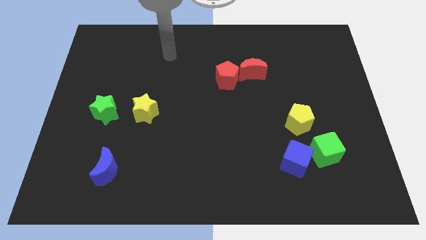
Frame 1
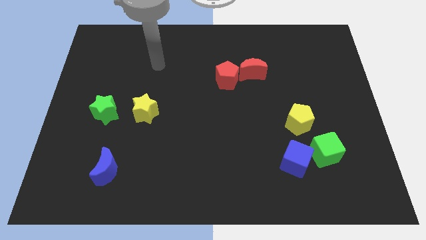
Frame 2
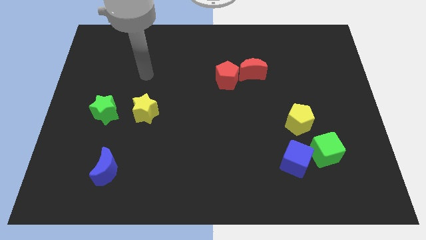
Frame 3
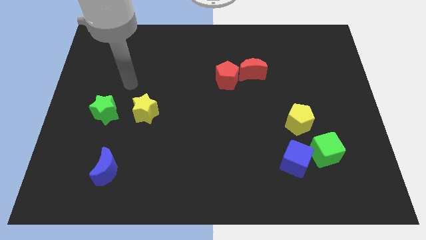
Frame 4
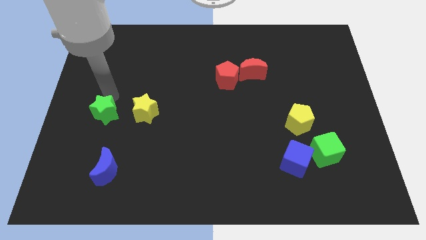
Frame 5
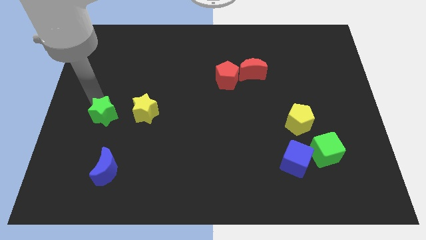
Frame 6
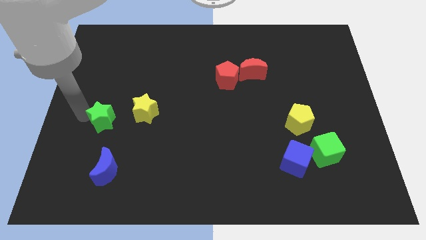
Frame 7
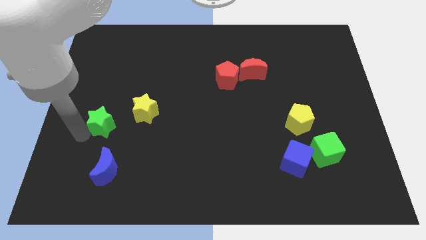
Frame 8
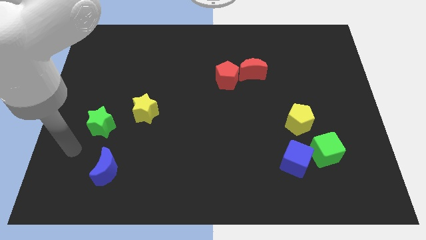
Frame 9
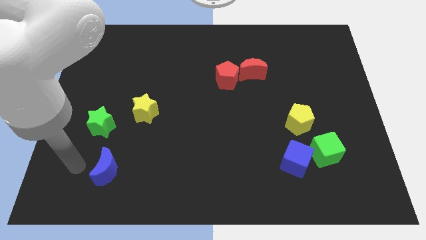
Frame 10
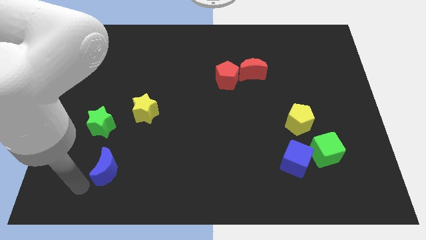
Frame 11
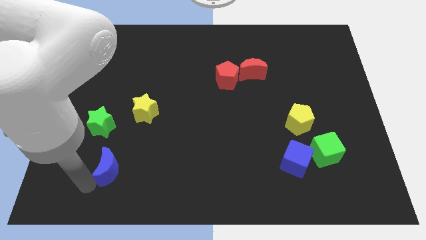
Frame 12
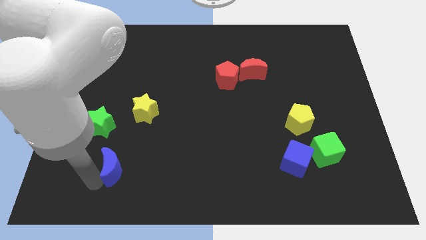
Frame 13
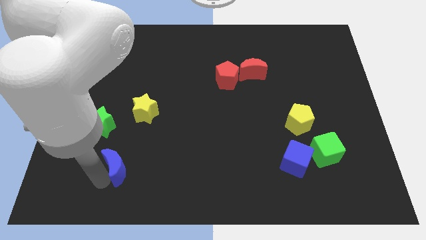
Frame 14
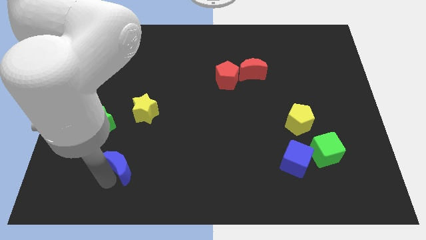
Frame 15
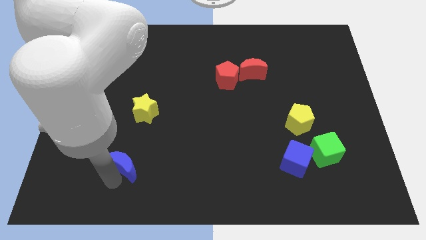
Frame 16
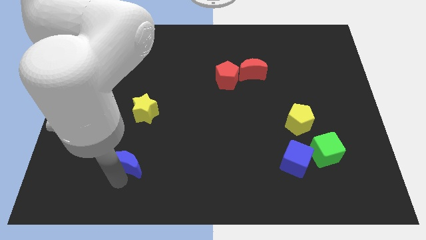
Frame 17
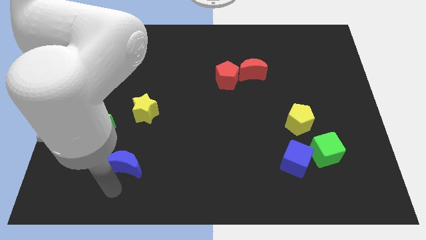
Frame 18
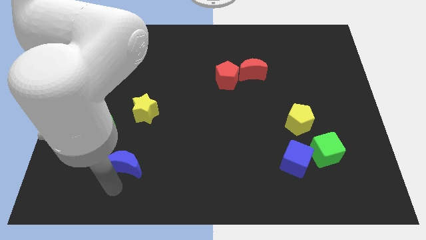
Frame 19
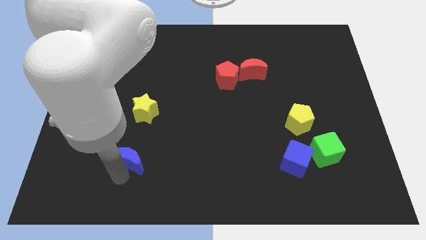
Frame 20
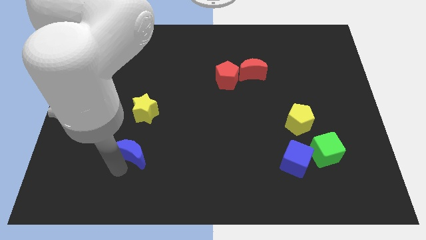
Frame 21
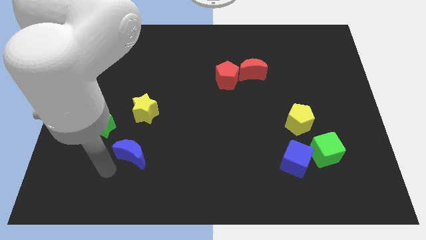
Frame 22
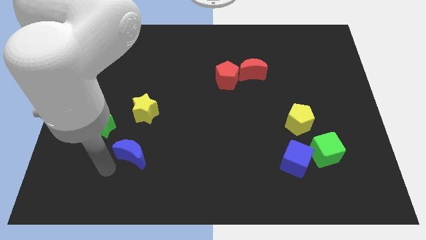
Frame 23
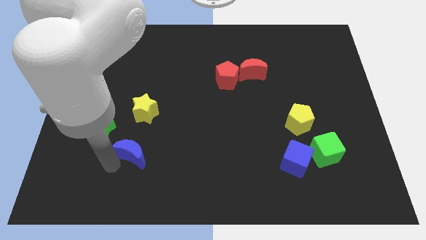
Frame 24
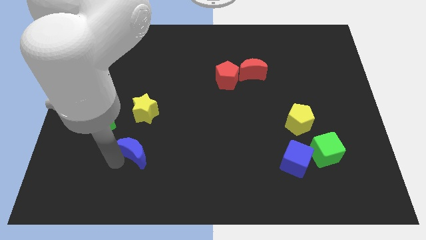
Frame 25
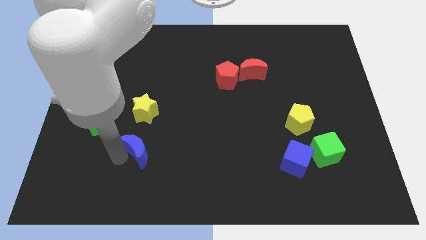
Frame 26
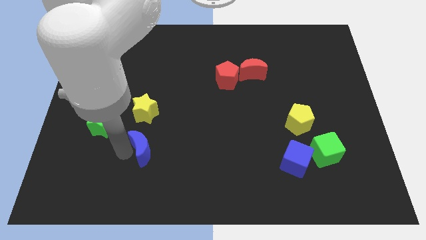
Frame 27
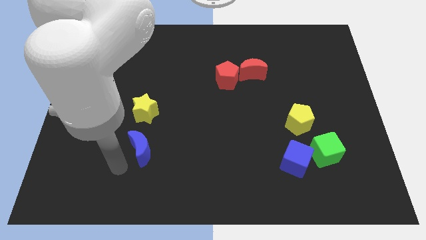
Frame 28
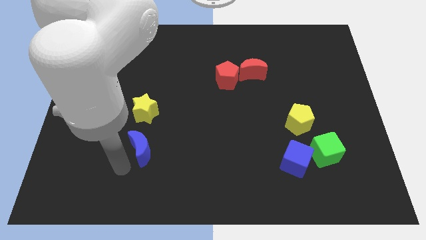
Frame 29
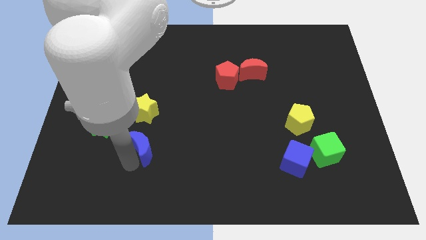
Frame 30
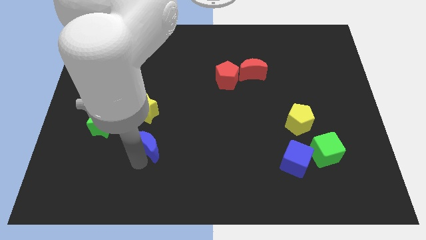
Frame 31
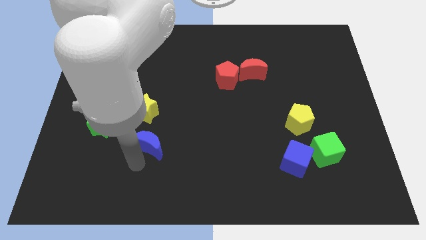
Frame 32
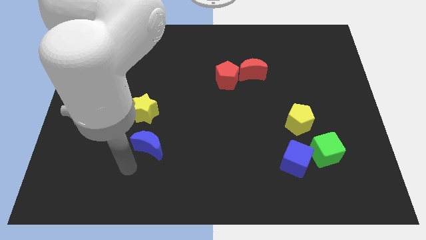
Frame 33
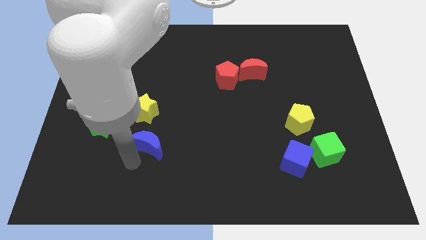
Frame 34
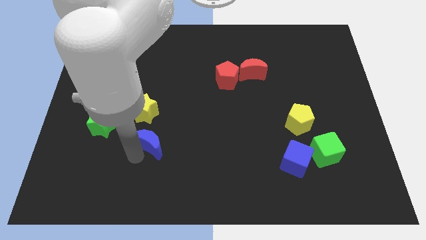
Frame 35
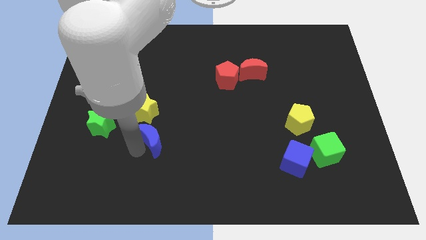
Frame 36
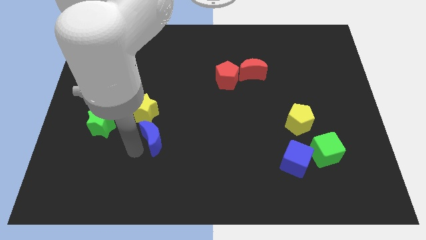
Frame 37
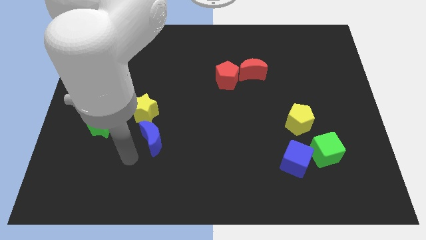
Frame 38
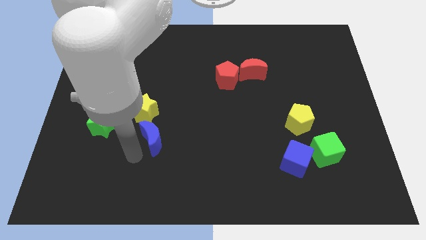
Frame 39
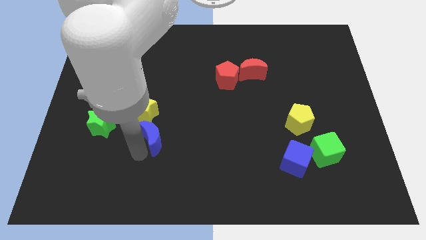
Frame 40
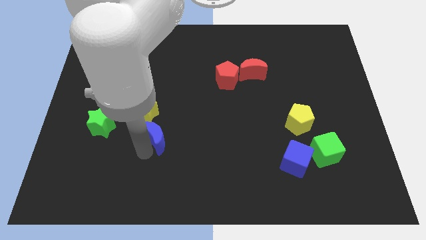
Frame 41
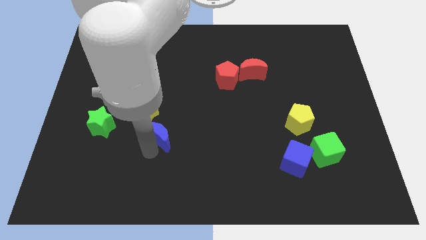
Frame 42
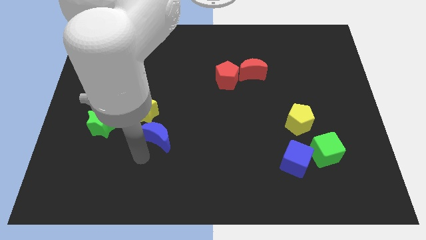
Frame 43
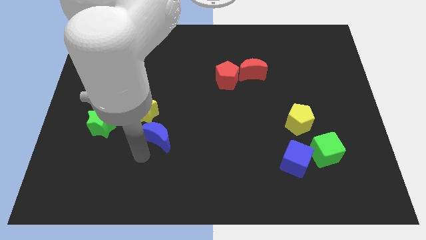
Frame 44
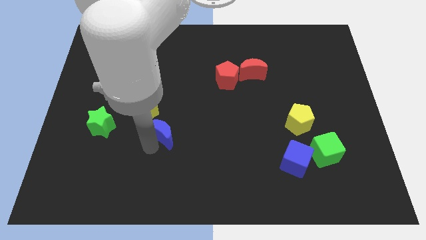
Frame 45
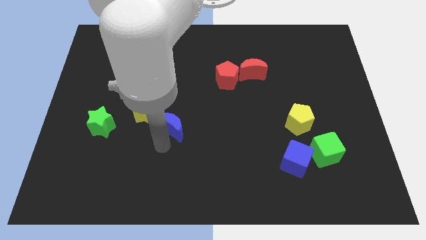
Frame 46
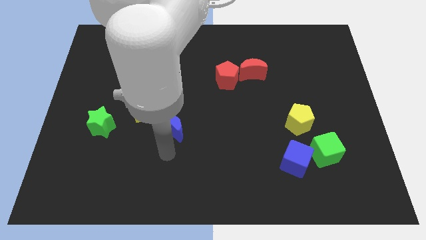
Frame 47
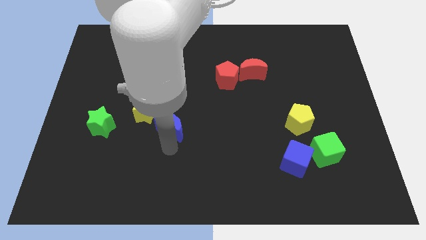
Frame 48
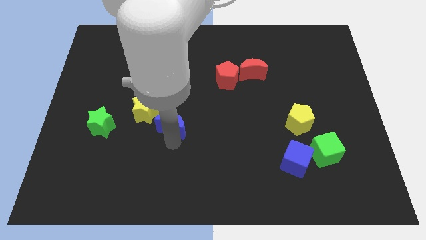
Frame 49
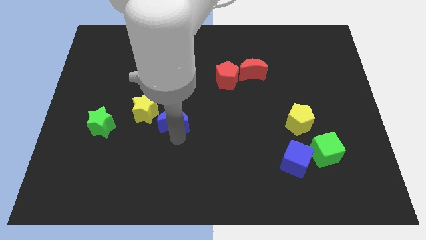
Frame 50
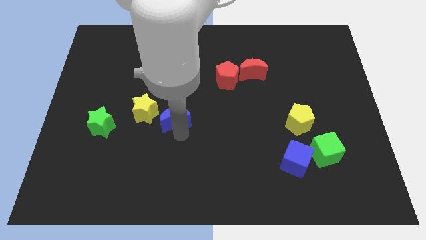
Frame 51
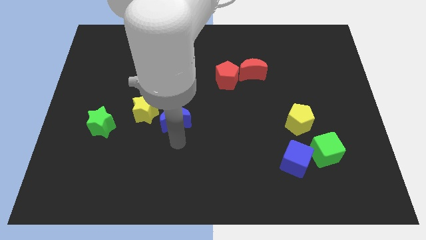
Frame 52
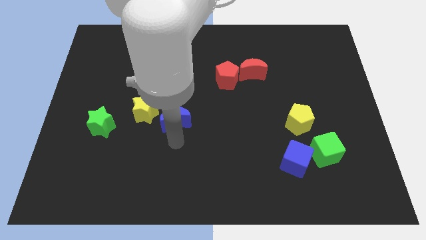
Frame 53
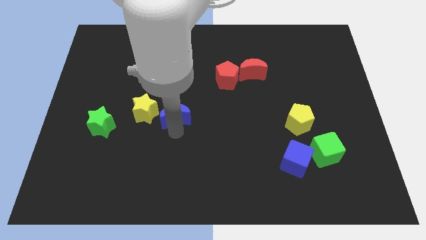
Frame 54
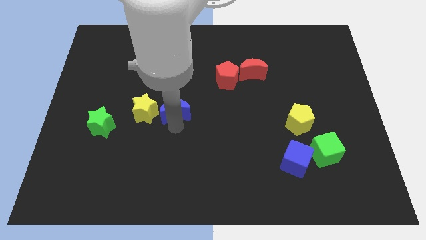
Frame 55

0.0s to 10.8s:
slide the blue moon diagonally up and to the right of the yellow star

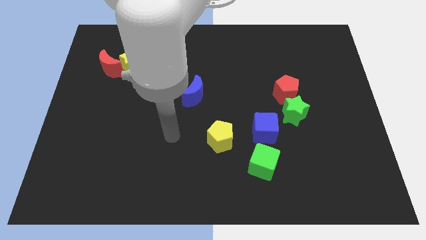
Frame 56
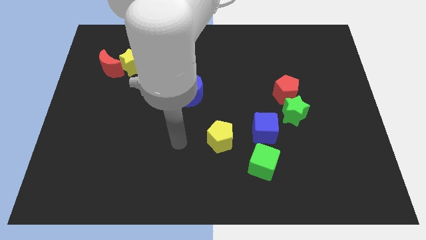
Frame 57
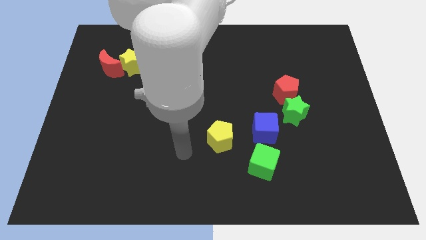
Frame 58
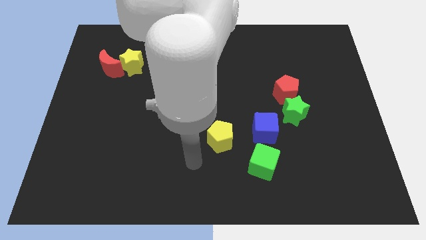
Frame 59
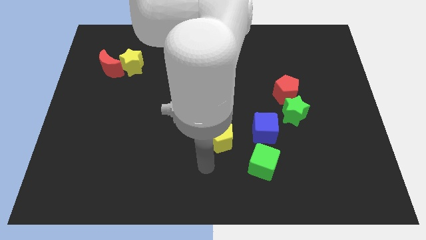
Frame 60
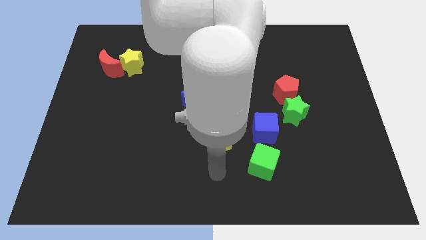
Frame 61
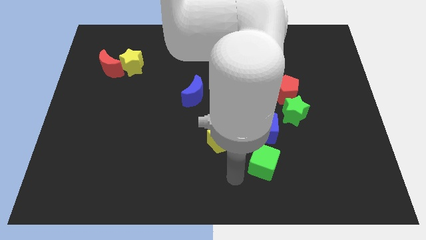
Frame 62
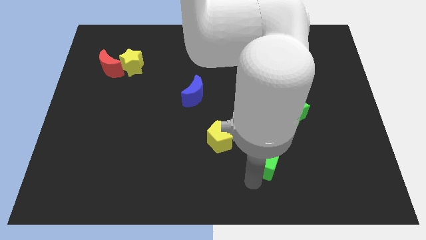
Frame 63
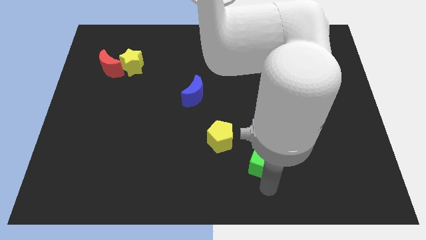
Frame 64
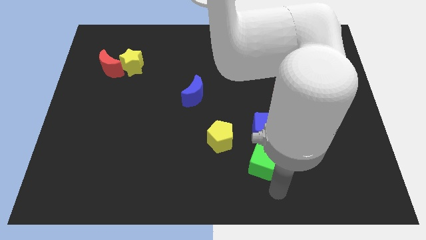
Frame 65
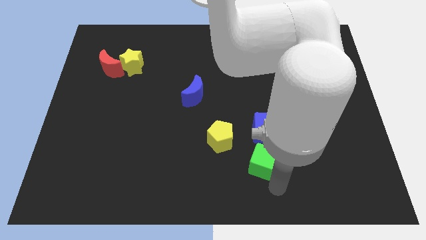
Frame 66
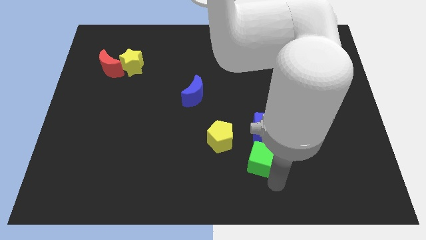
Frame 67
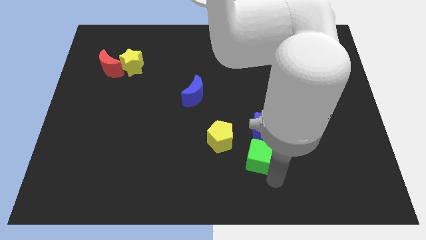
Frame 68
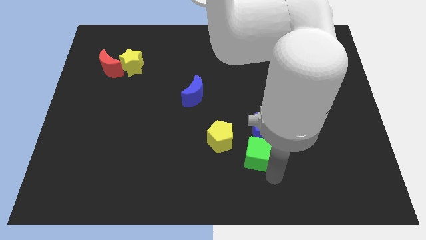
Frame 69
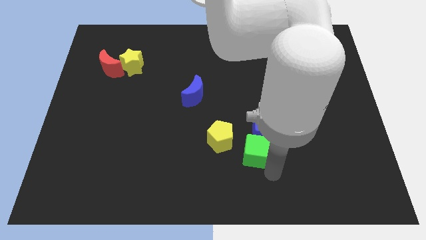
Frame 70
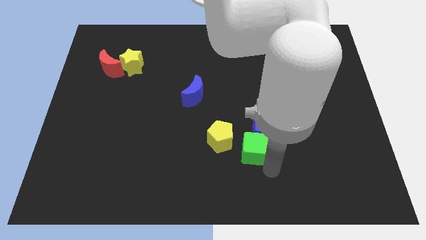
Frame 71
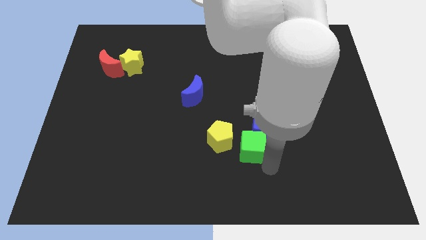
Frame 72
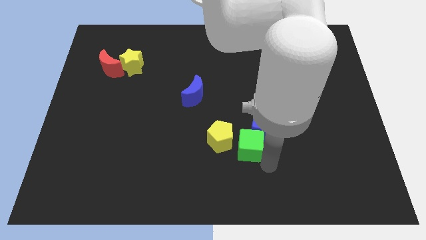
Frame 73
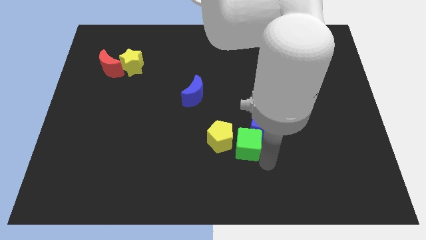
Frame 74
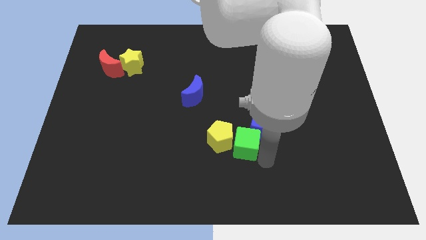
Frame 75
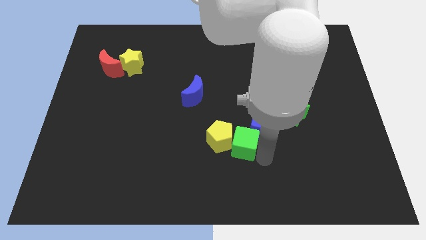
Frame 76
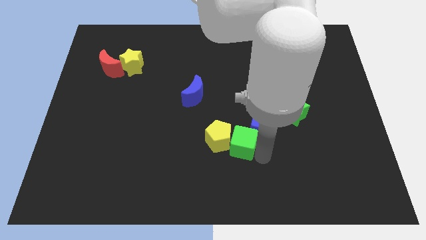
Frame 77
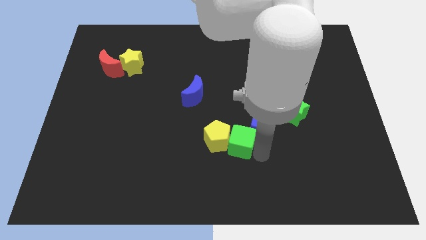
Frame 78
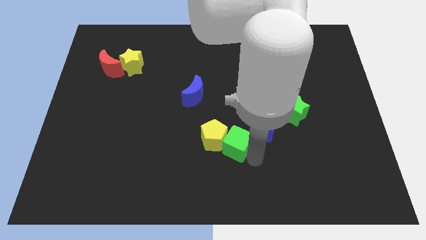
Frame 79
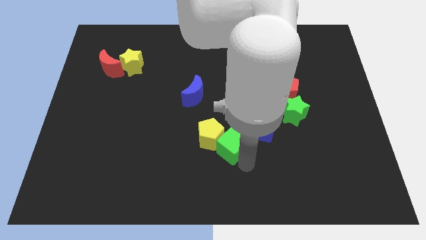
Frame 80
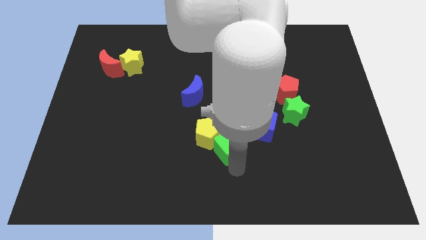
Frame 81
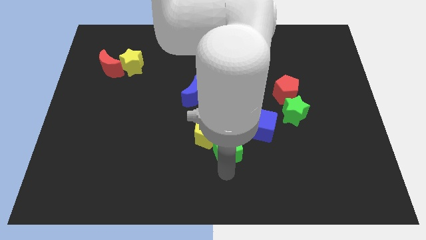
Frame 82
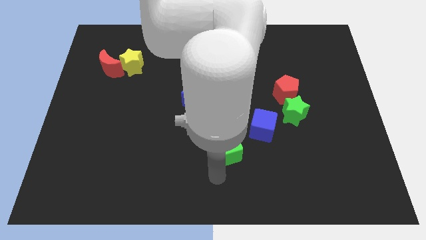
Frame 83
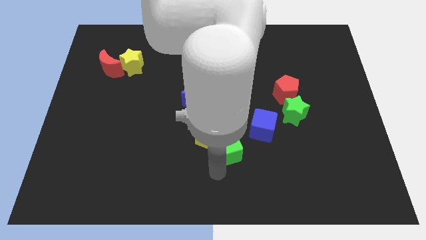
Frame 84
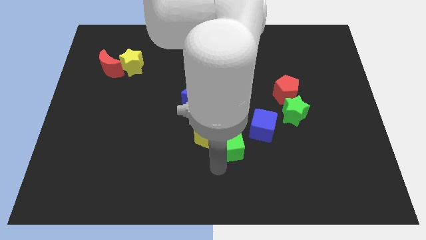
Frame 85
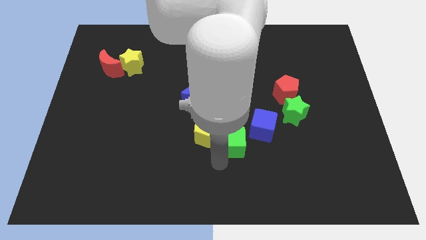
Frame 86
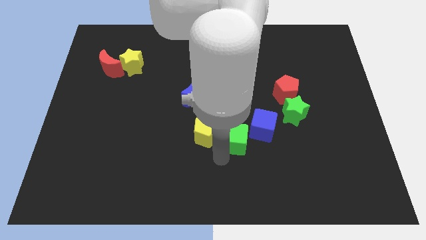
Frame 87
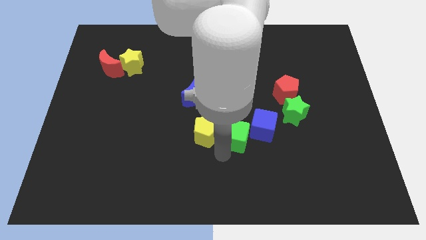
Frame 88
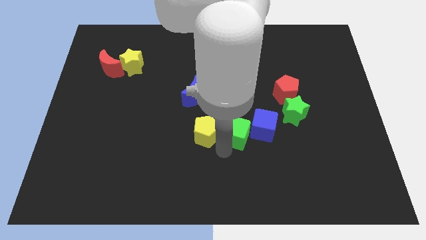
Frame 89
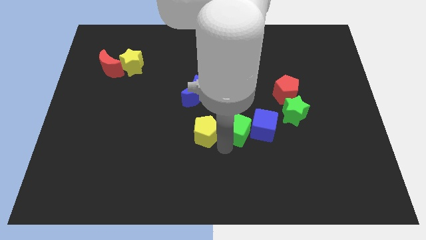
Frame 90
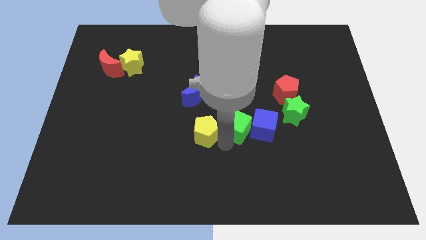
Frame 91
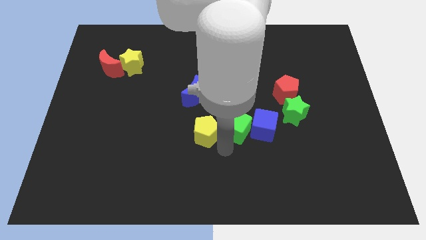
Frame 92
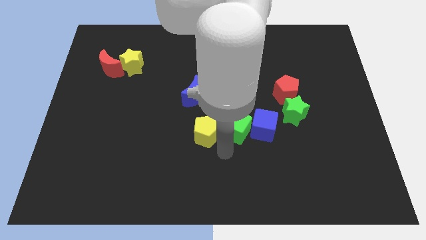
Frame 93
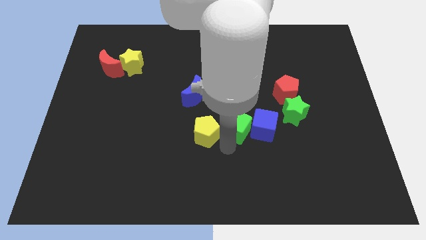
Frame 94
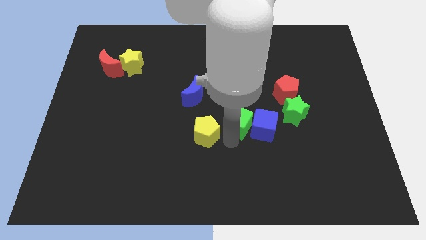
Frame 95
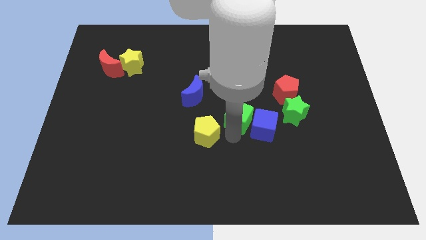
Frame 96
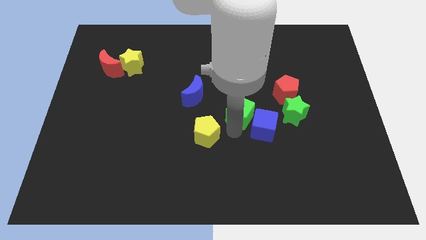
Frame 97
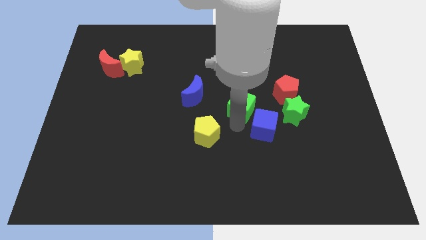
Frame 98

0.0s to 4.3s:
slide the green cube just left of the red pentagon
